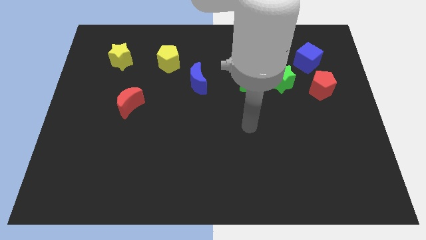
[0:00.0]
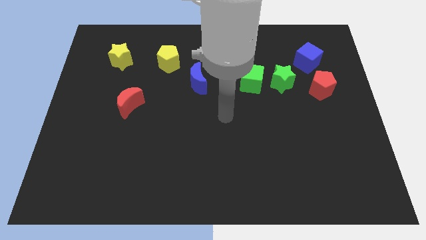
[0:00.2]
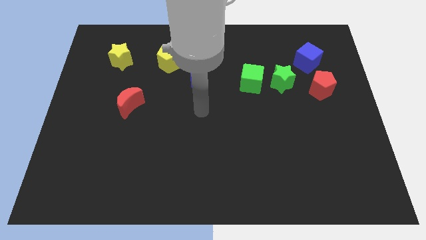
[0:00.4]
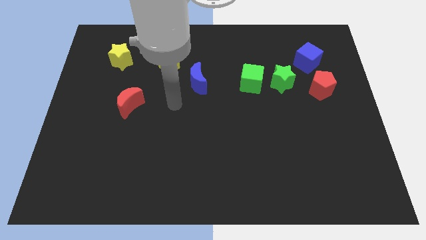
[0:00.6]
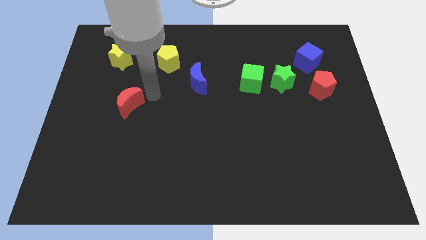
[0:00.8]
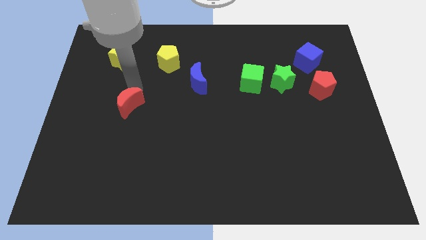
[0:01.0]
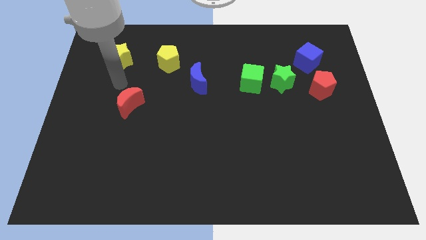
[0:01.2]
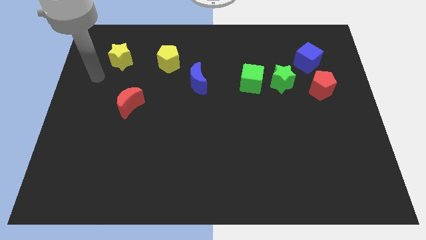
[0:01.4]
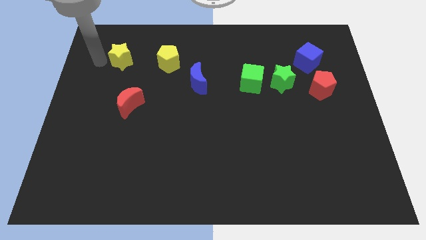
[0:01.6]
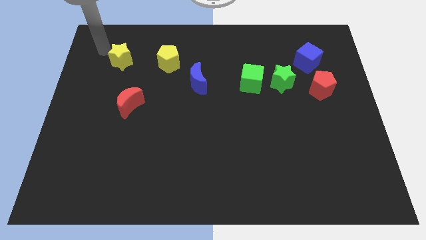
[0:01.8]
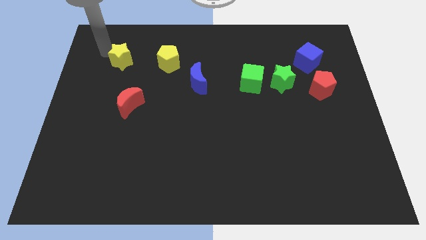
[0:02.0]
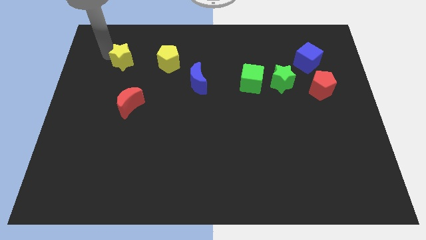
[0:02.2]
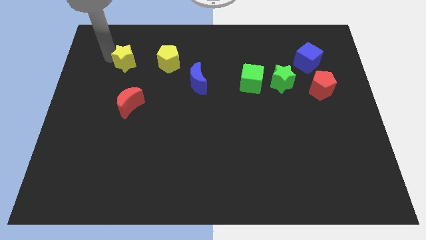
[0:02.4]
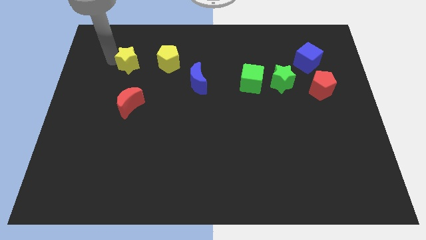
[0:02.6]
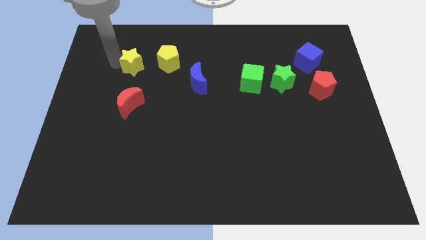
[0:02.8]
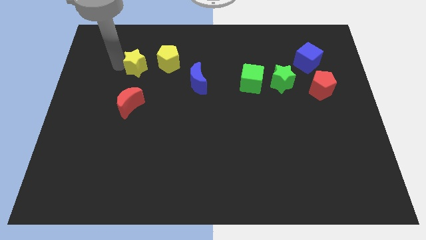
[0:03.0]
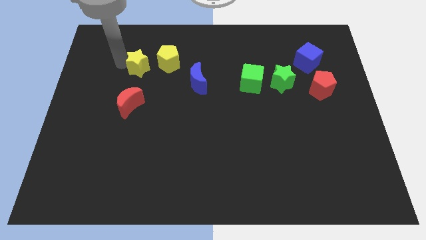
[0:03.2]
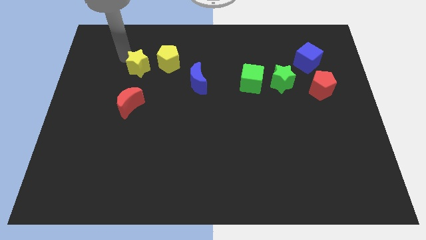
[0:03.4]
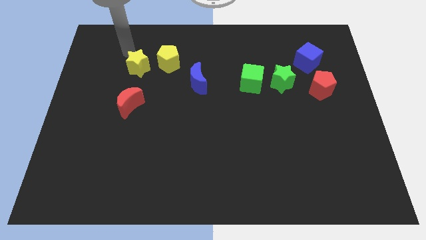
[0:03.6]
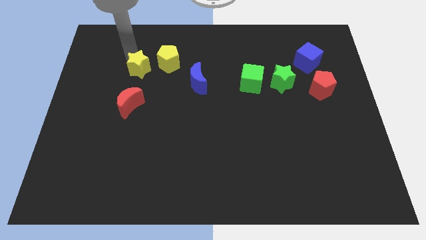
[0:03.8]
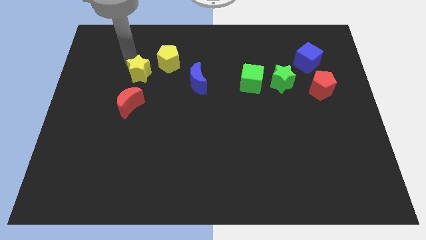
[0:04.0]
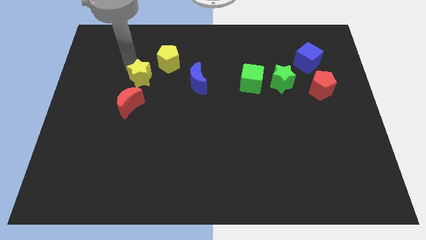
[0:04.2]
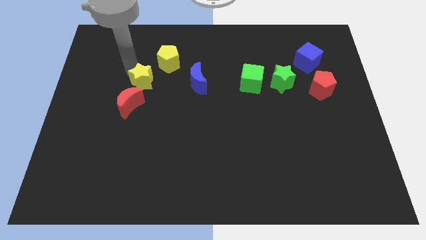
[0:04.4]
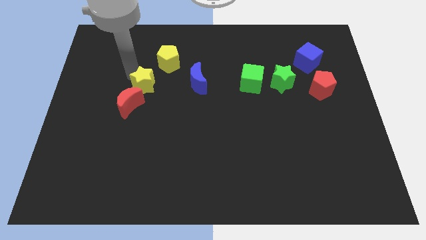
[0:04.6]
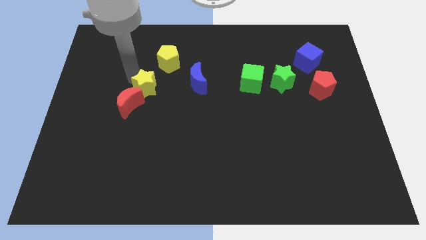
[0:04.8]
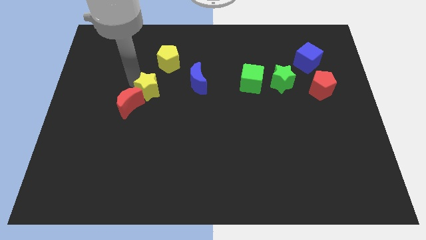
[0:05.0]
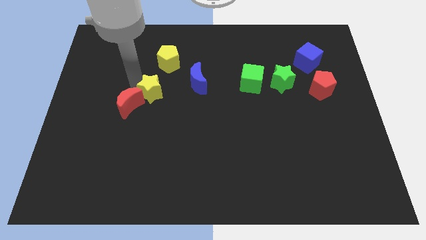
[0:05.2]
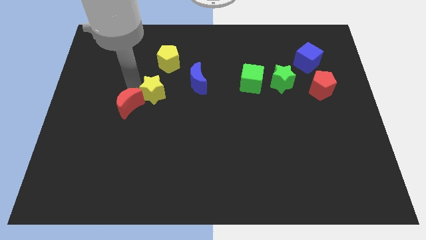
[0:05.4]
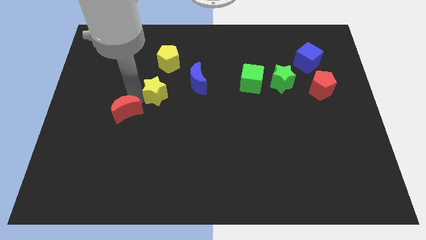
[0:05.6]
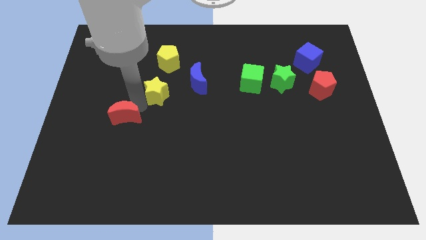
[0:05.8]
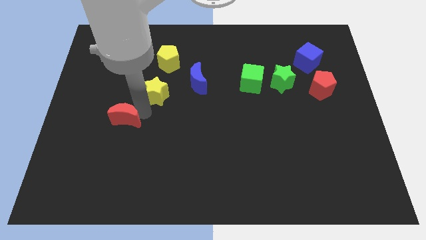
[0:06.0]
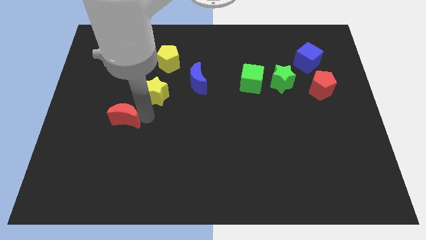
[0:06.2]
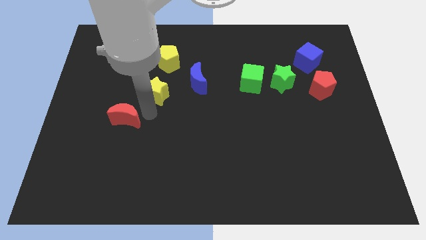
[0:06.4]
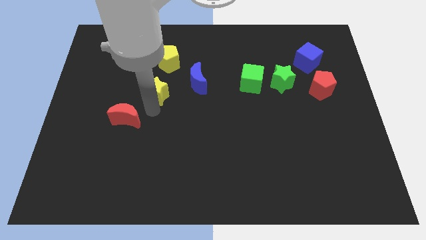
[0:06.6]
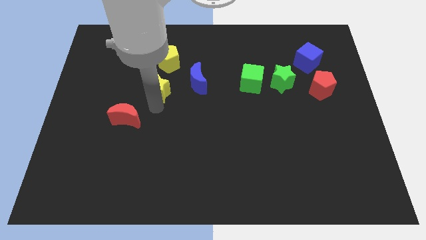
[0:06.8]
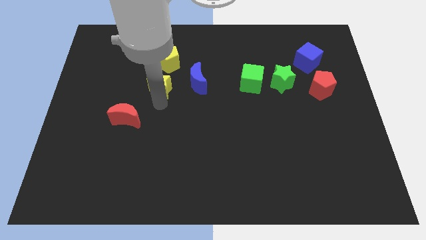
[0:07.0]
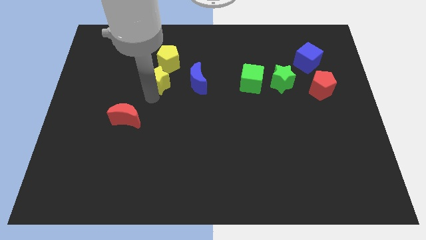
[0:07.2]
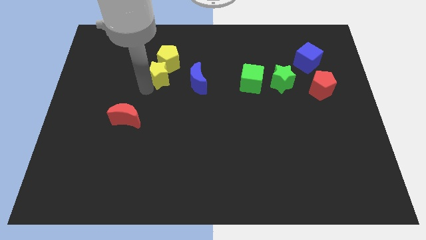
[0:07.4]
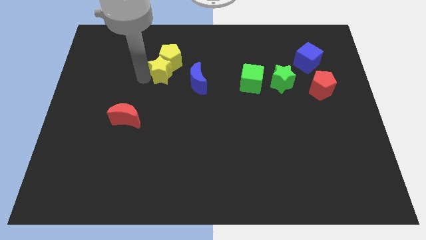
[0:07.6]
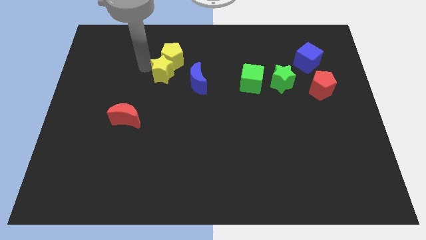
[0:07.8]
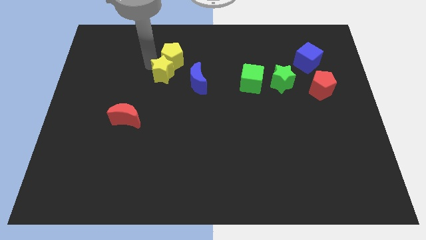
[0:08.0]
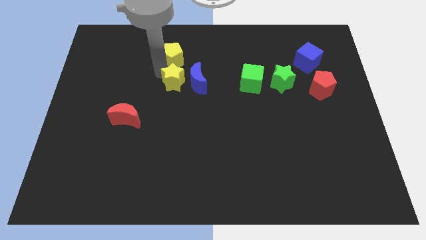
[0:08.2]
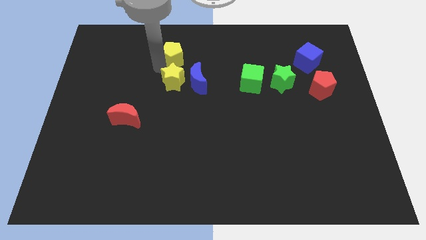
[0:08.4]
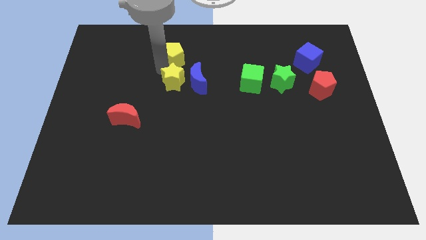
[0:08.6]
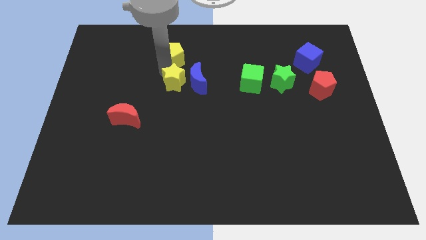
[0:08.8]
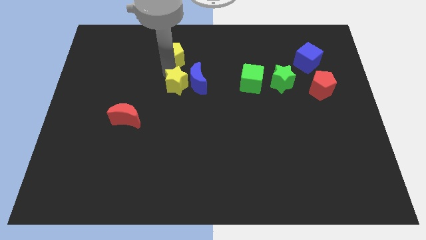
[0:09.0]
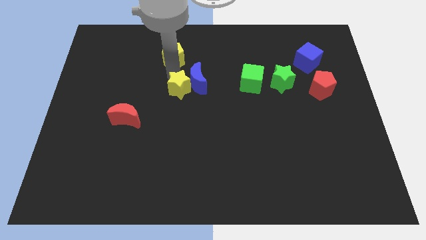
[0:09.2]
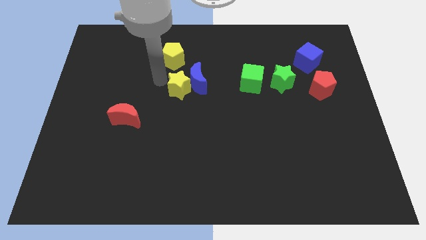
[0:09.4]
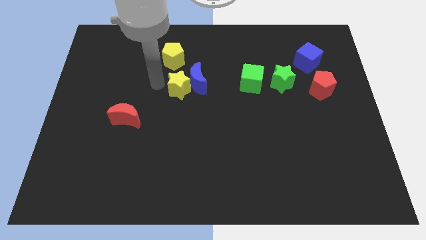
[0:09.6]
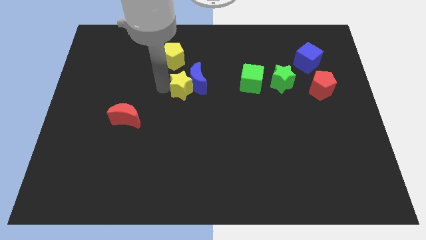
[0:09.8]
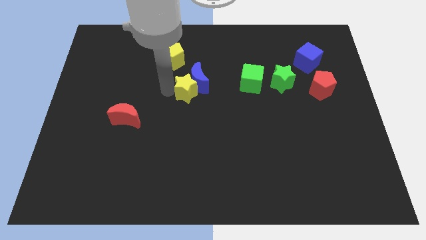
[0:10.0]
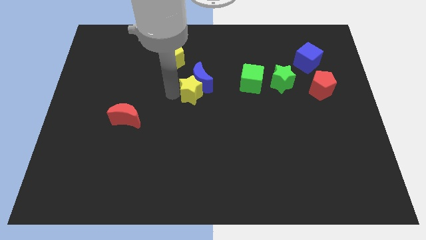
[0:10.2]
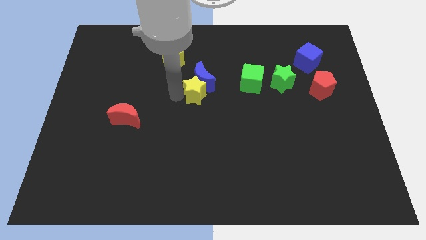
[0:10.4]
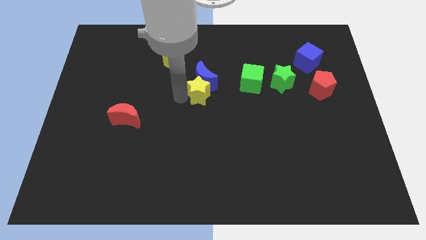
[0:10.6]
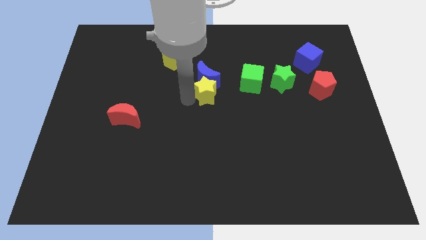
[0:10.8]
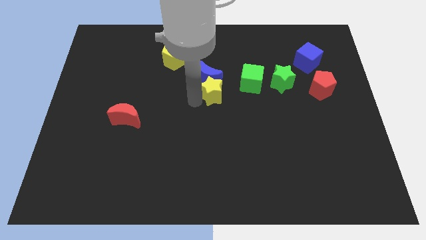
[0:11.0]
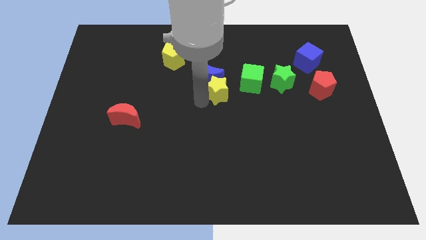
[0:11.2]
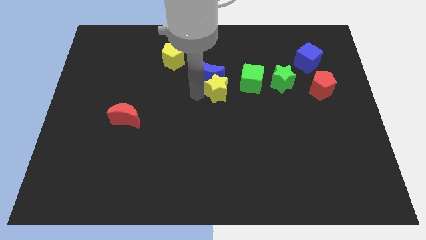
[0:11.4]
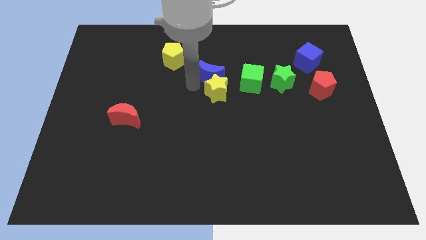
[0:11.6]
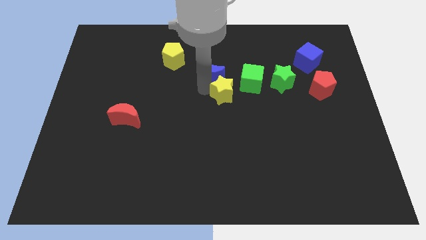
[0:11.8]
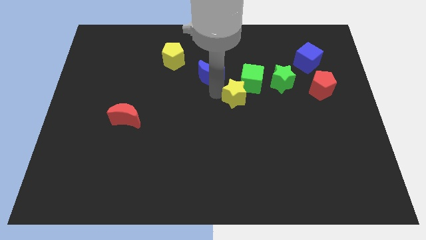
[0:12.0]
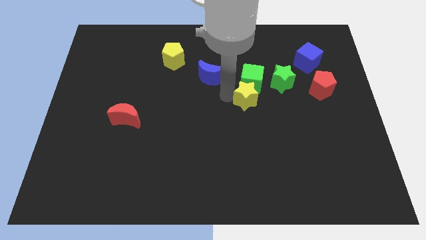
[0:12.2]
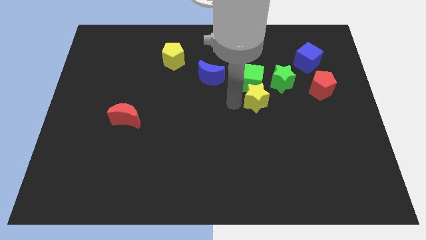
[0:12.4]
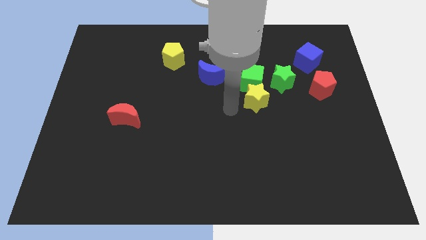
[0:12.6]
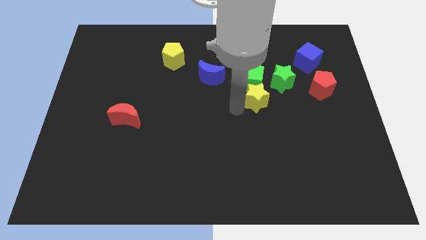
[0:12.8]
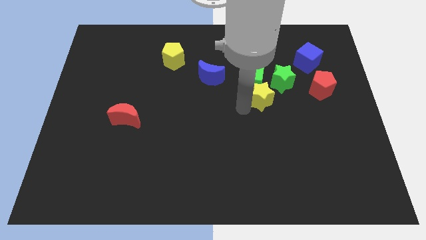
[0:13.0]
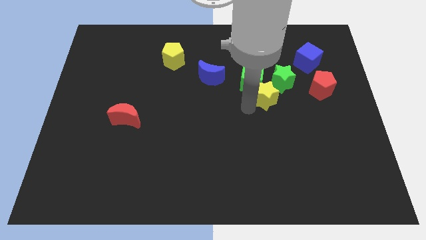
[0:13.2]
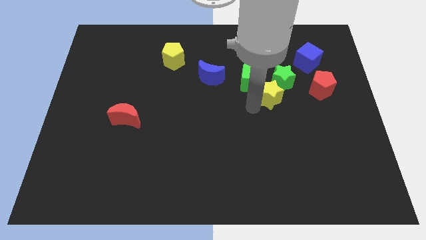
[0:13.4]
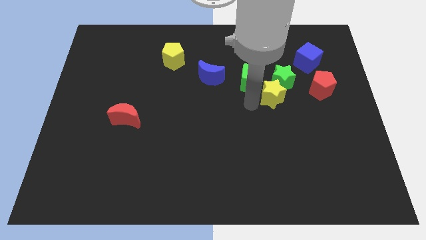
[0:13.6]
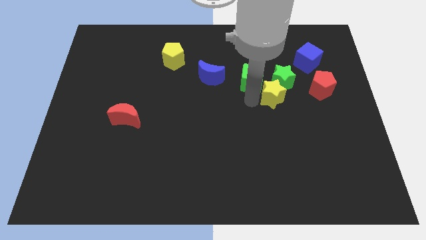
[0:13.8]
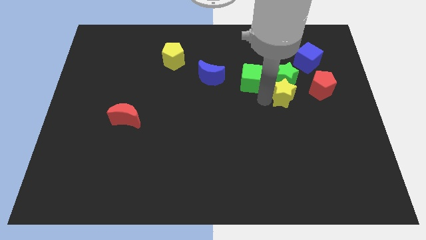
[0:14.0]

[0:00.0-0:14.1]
slide the yellow star right of the green cube
